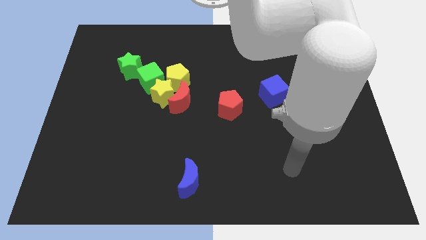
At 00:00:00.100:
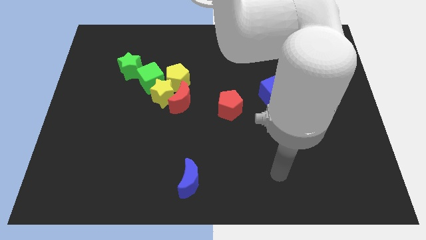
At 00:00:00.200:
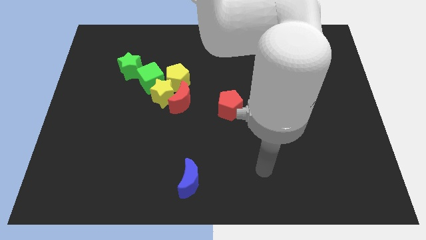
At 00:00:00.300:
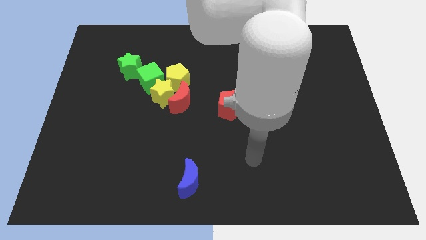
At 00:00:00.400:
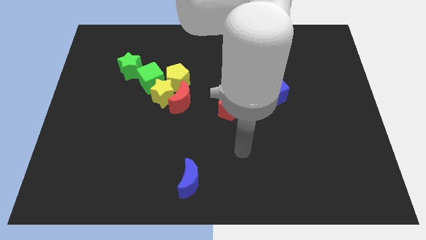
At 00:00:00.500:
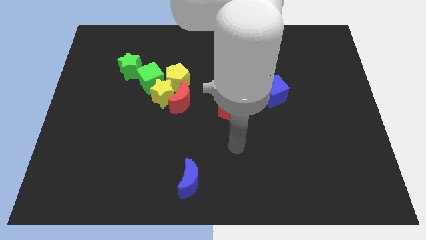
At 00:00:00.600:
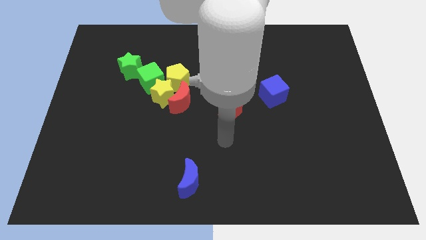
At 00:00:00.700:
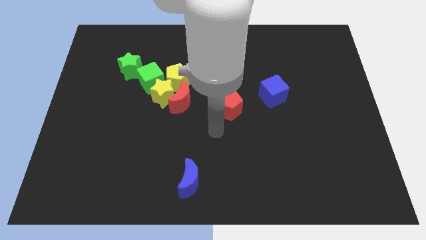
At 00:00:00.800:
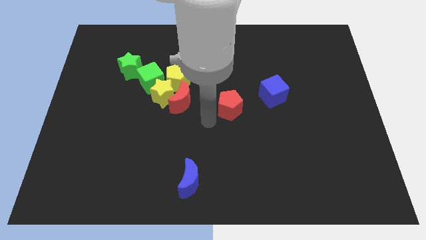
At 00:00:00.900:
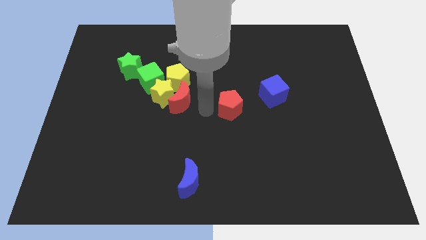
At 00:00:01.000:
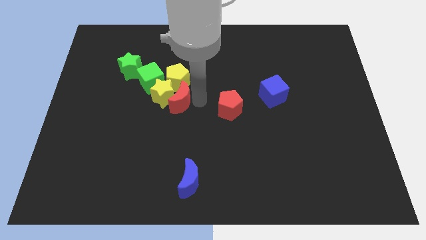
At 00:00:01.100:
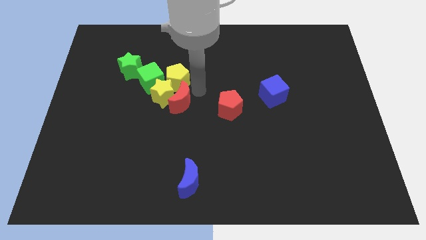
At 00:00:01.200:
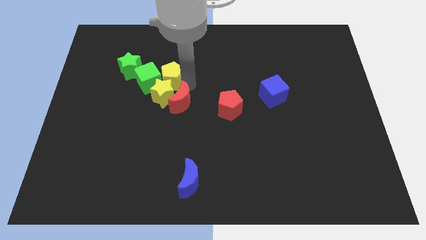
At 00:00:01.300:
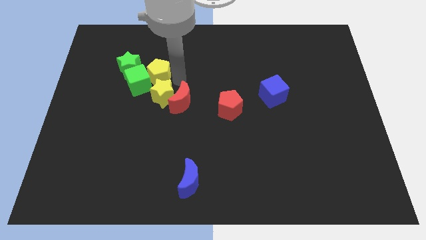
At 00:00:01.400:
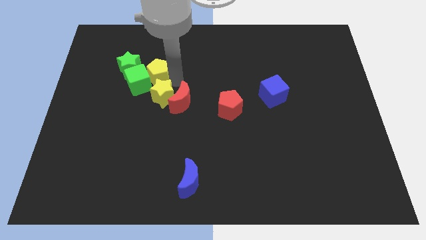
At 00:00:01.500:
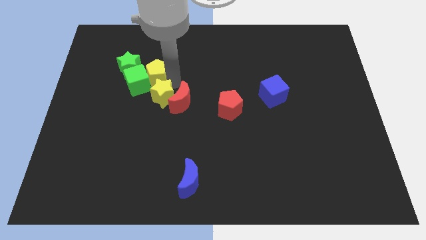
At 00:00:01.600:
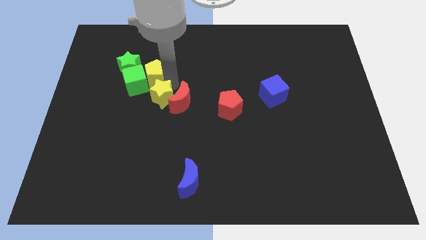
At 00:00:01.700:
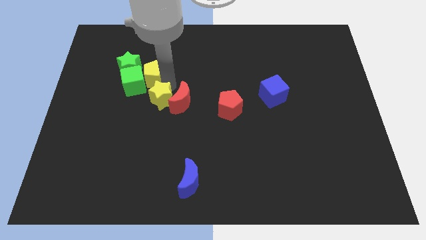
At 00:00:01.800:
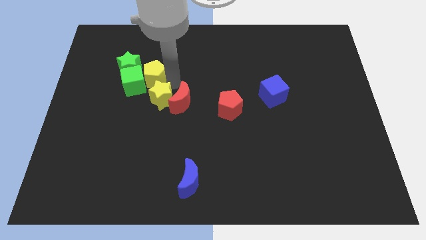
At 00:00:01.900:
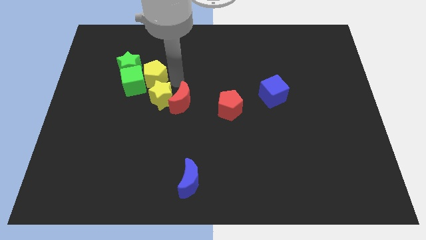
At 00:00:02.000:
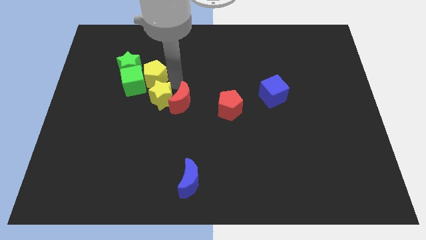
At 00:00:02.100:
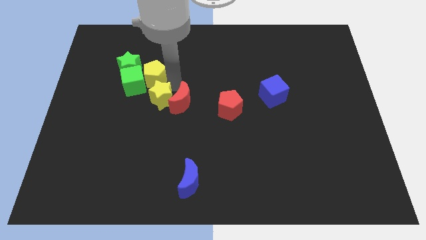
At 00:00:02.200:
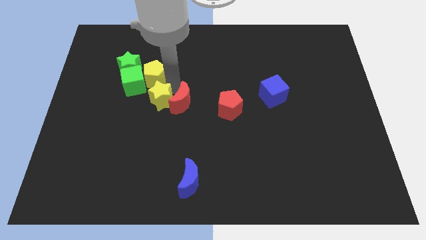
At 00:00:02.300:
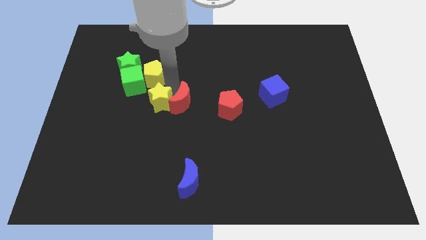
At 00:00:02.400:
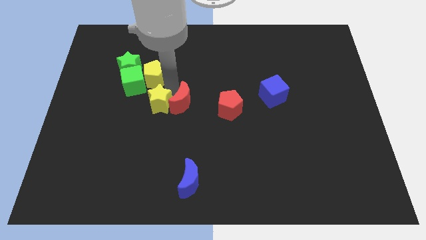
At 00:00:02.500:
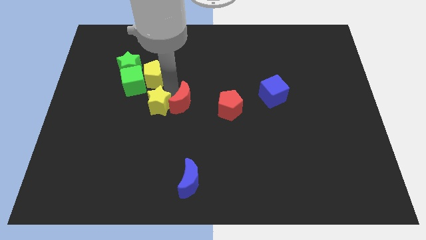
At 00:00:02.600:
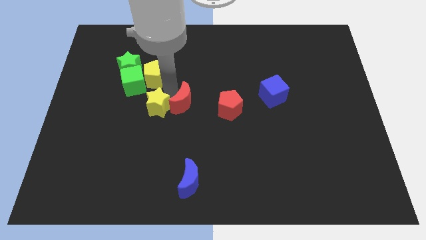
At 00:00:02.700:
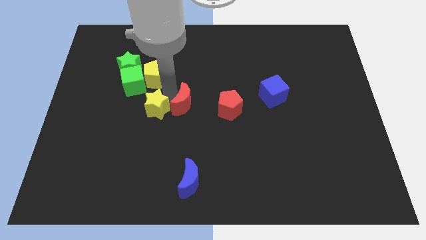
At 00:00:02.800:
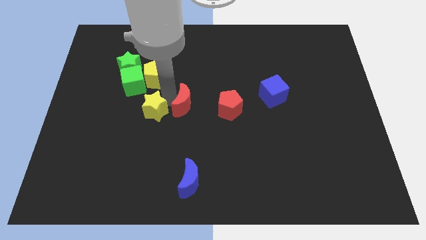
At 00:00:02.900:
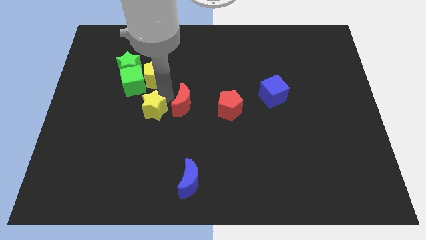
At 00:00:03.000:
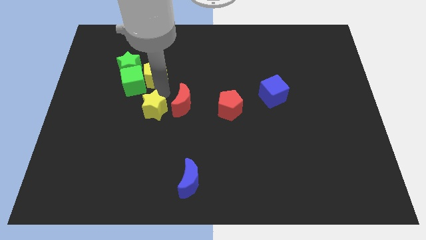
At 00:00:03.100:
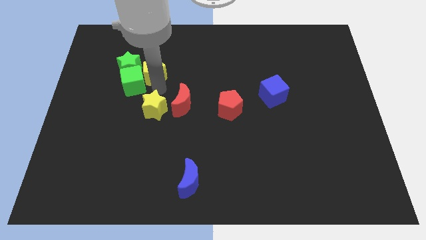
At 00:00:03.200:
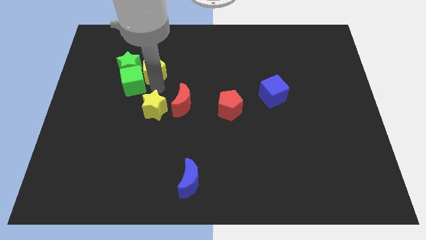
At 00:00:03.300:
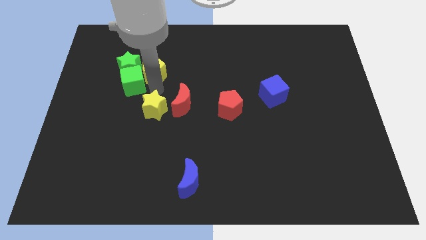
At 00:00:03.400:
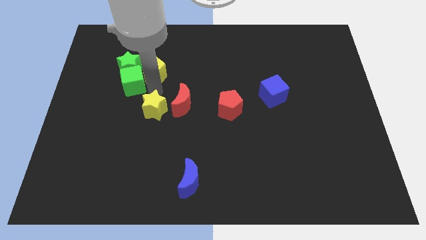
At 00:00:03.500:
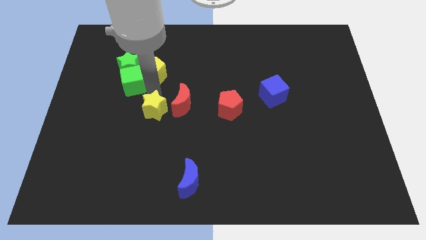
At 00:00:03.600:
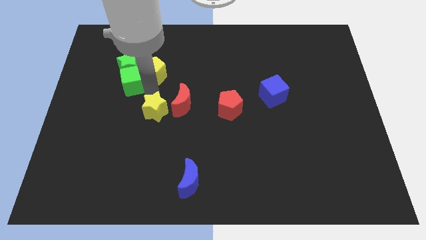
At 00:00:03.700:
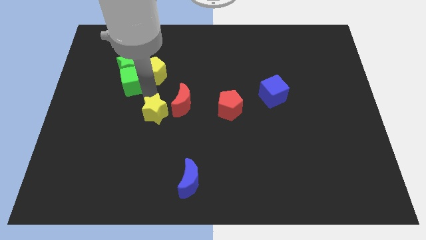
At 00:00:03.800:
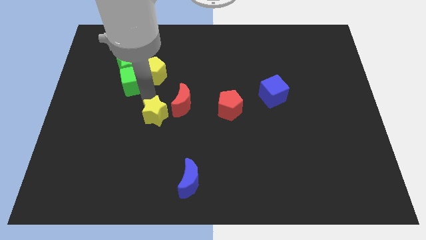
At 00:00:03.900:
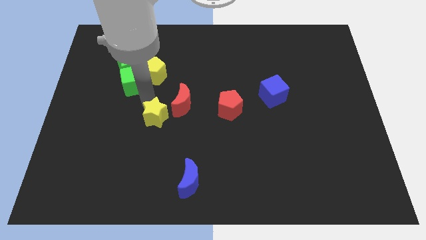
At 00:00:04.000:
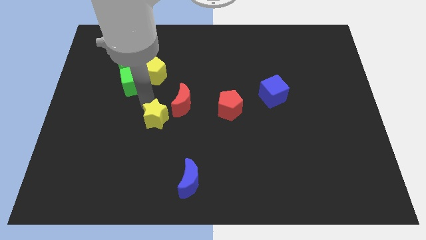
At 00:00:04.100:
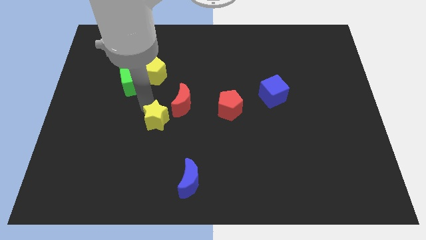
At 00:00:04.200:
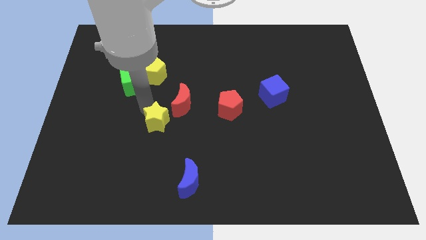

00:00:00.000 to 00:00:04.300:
separate the yellow star from the clump

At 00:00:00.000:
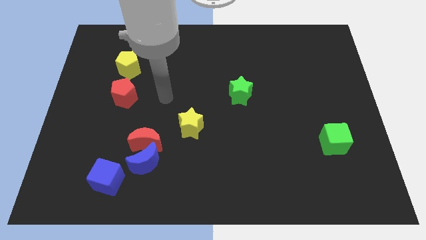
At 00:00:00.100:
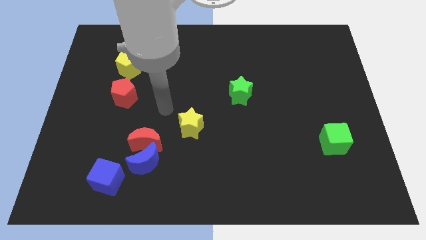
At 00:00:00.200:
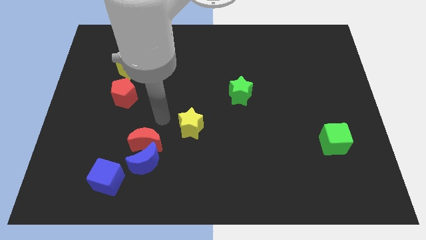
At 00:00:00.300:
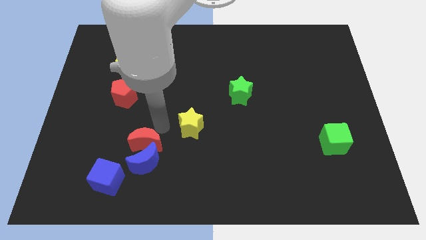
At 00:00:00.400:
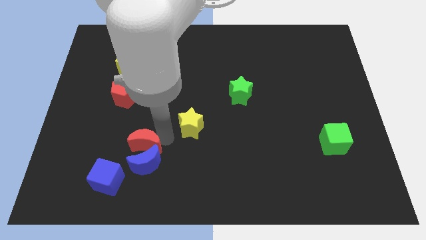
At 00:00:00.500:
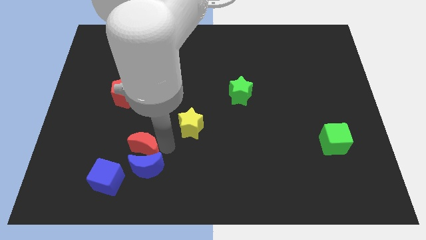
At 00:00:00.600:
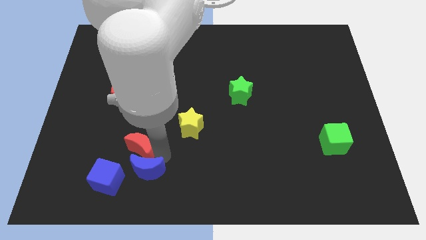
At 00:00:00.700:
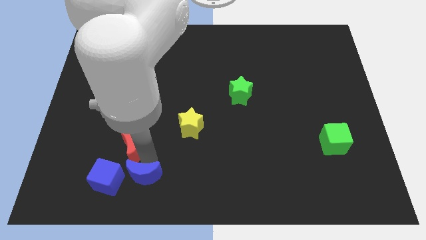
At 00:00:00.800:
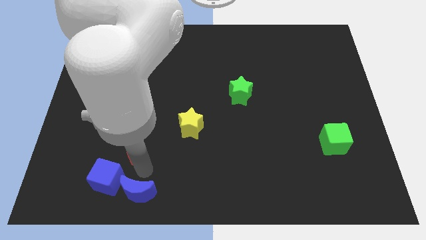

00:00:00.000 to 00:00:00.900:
separate the red moon from the blue moon

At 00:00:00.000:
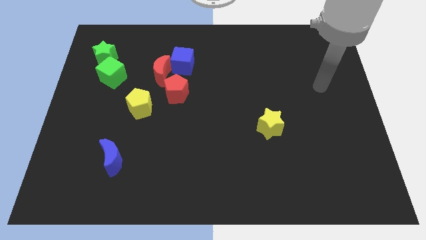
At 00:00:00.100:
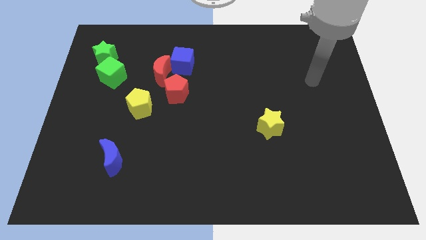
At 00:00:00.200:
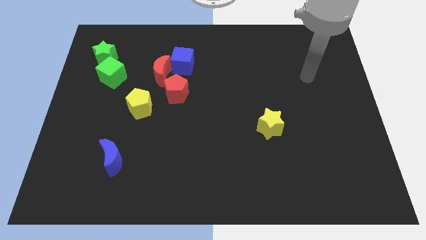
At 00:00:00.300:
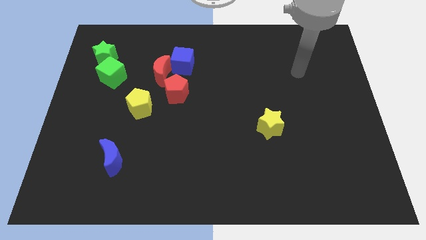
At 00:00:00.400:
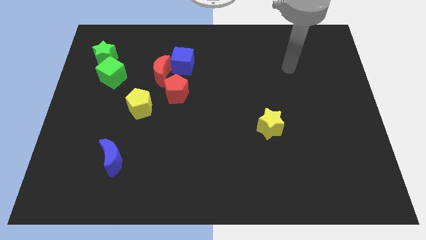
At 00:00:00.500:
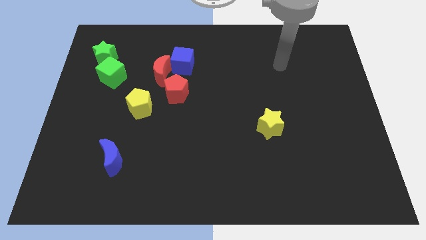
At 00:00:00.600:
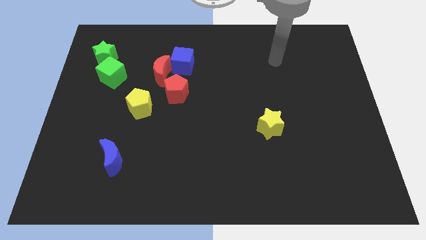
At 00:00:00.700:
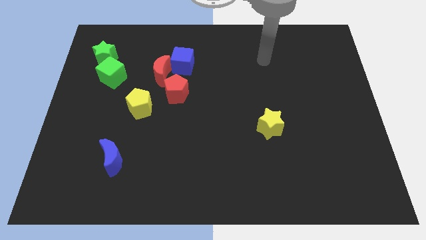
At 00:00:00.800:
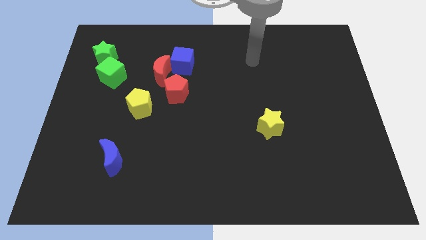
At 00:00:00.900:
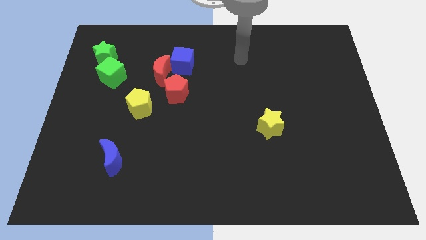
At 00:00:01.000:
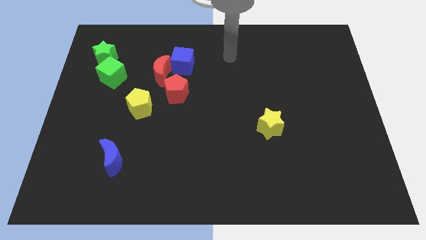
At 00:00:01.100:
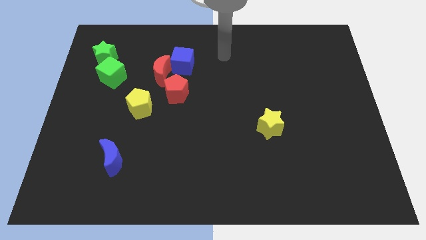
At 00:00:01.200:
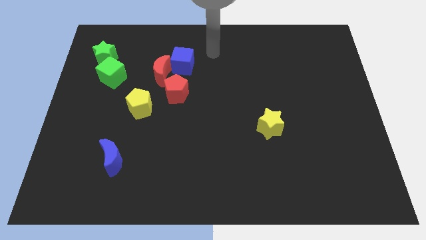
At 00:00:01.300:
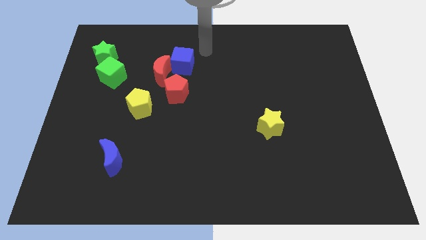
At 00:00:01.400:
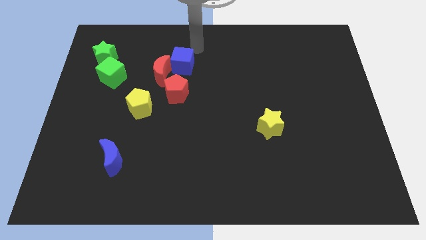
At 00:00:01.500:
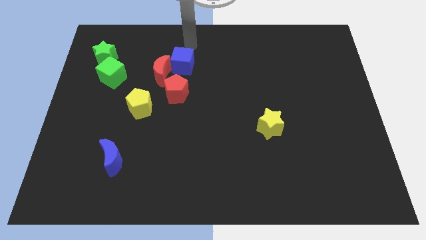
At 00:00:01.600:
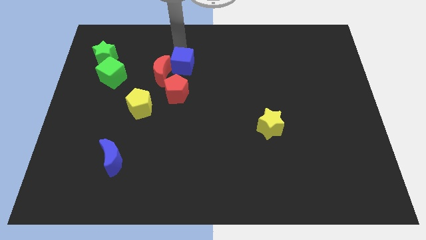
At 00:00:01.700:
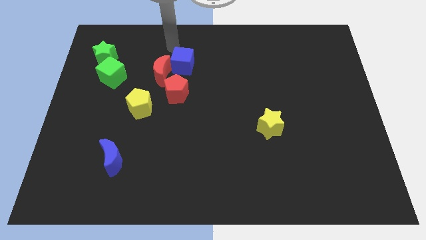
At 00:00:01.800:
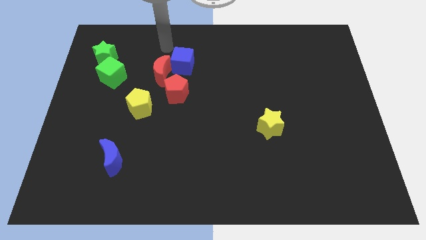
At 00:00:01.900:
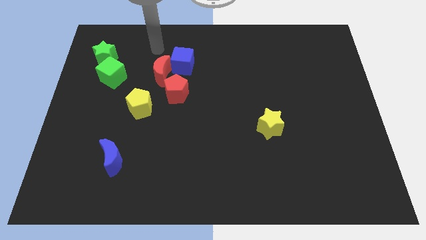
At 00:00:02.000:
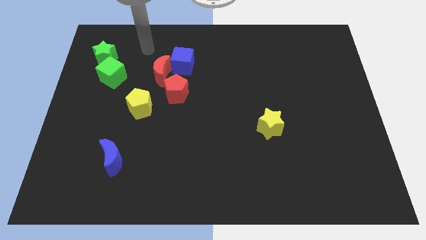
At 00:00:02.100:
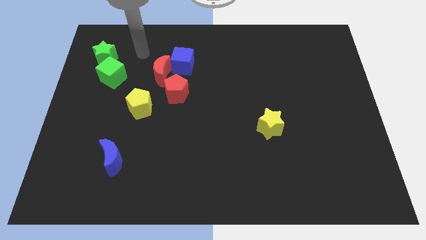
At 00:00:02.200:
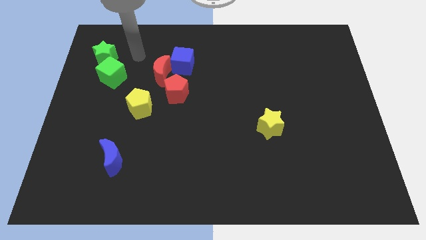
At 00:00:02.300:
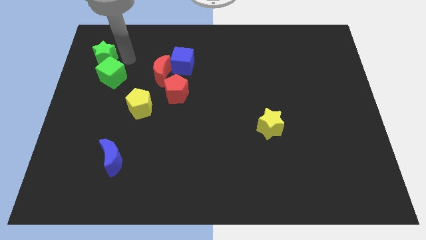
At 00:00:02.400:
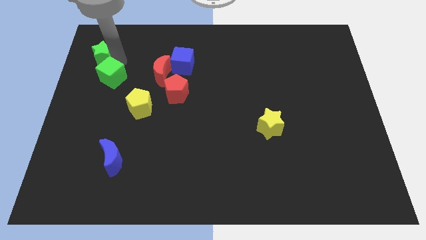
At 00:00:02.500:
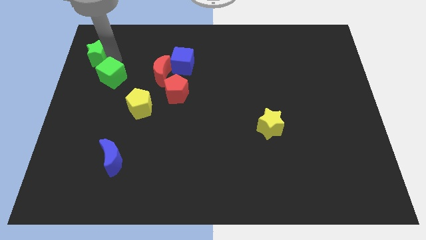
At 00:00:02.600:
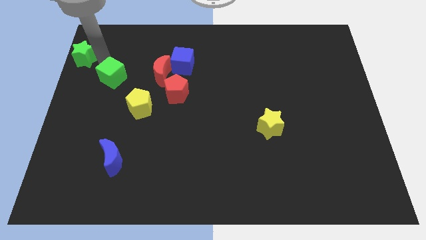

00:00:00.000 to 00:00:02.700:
pull the green cube apart from the green star

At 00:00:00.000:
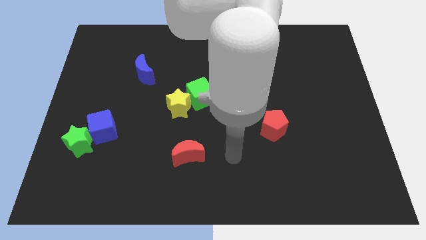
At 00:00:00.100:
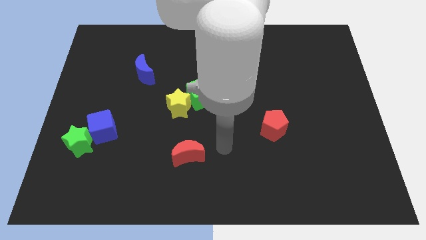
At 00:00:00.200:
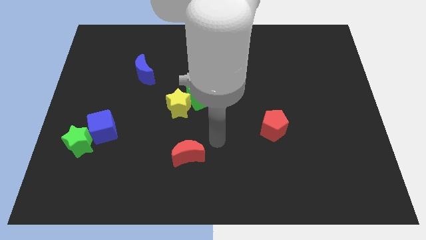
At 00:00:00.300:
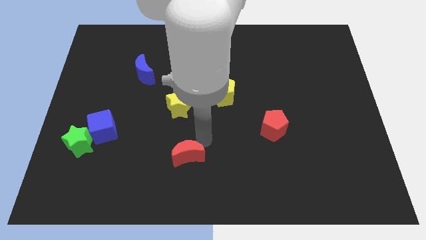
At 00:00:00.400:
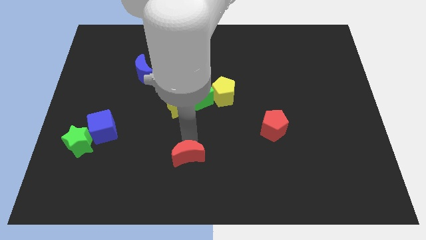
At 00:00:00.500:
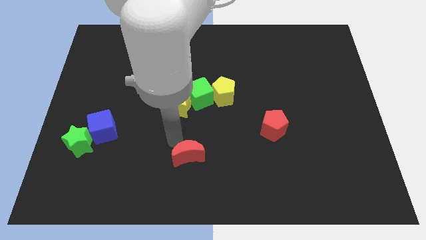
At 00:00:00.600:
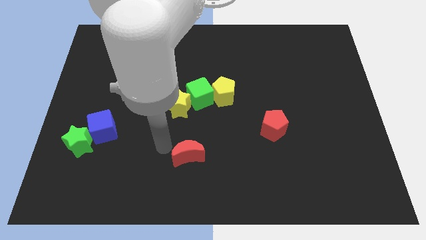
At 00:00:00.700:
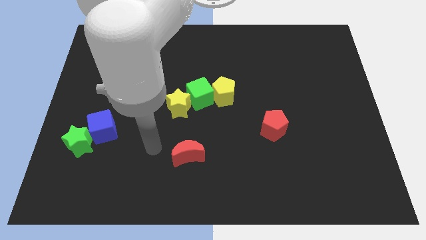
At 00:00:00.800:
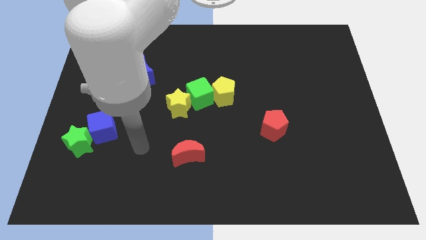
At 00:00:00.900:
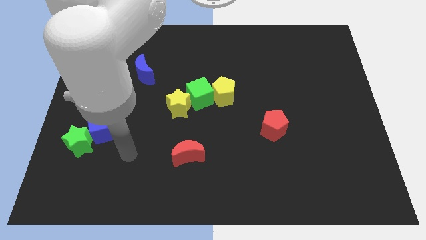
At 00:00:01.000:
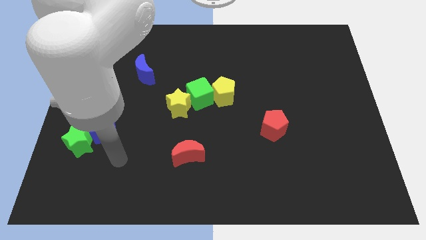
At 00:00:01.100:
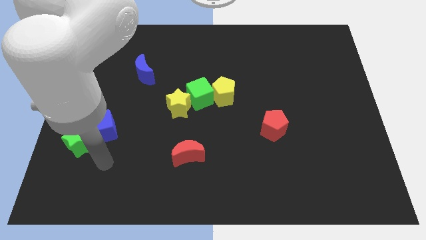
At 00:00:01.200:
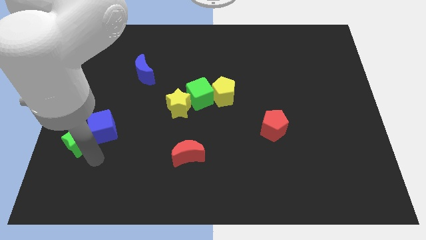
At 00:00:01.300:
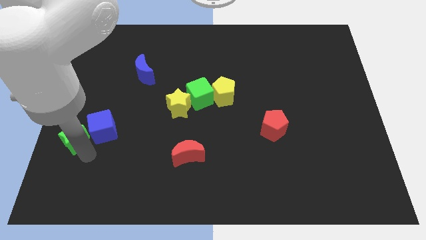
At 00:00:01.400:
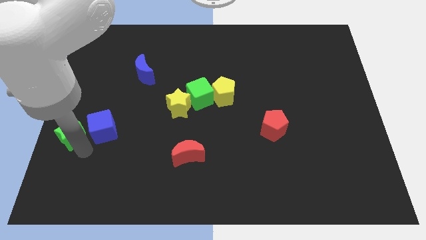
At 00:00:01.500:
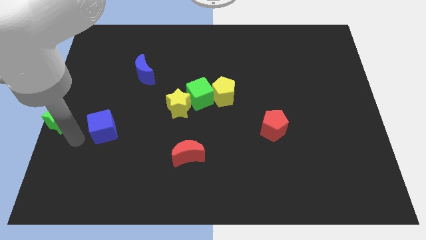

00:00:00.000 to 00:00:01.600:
move the blue cube away from the green star
